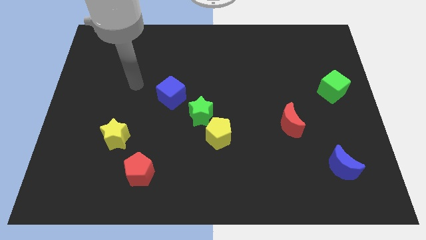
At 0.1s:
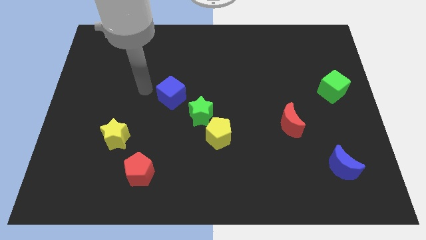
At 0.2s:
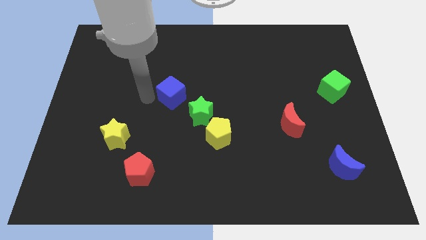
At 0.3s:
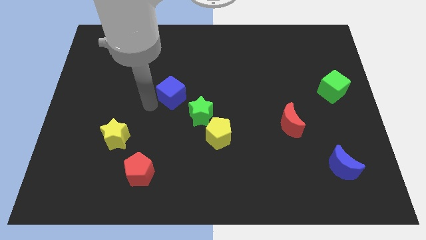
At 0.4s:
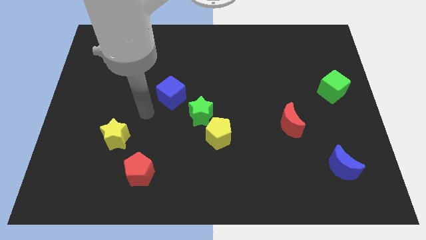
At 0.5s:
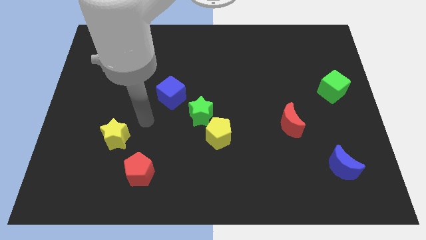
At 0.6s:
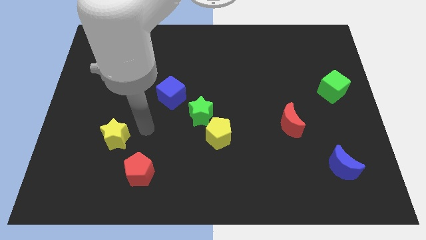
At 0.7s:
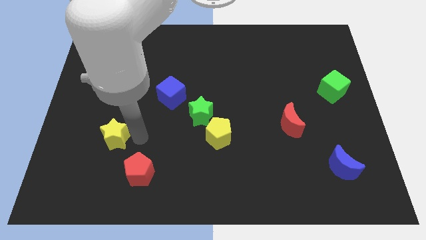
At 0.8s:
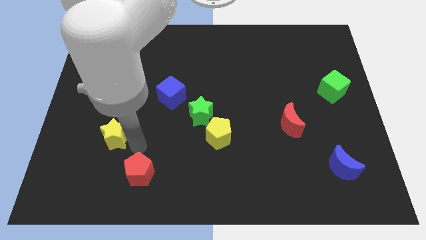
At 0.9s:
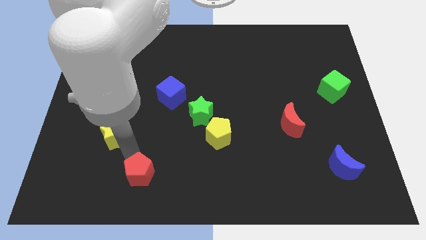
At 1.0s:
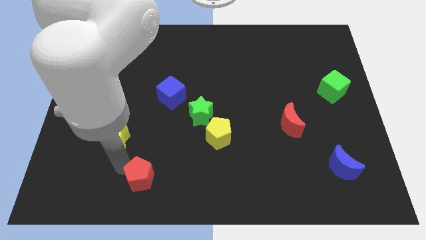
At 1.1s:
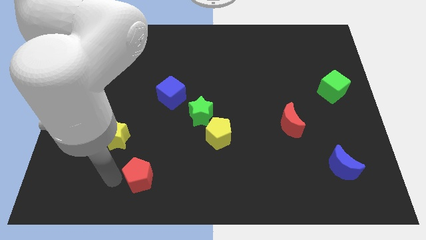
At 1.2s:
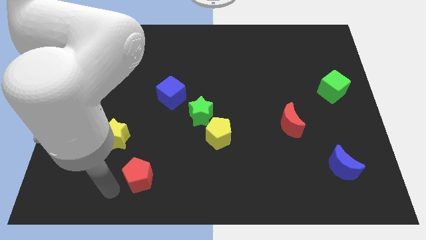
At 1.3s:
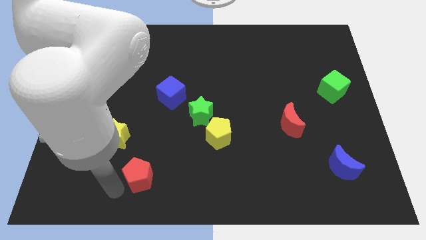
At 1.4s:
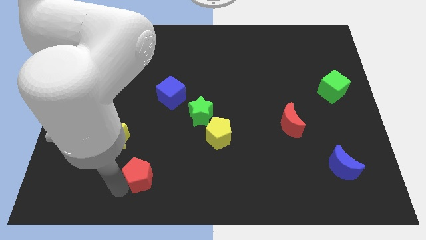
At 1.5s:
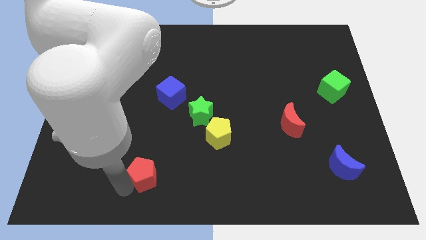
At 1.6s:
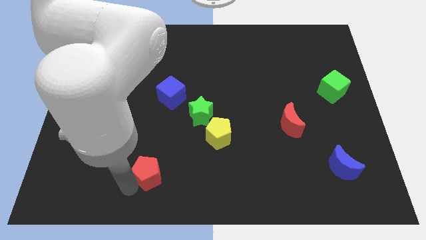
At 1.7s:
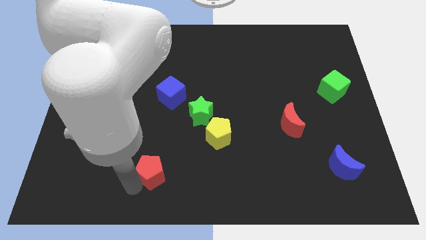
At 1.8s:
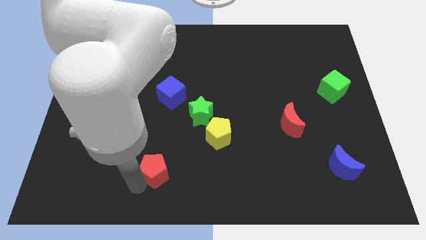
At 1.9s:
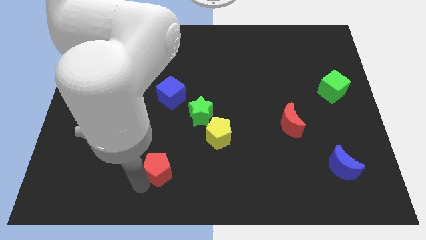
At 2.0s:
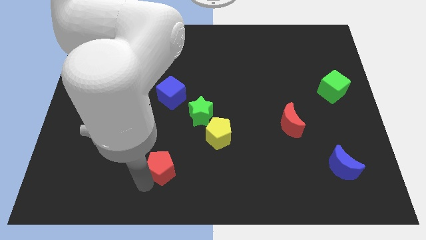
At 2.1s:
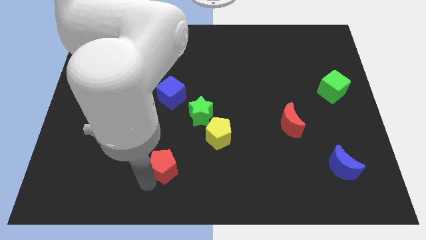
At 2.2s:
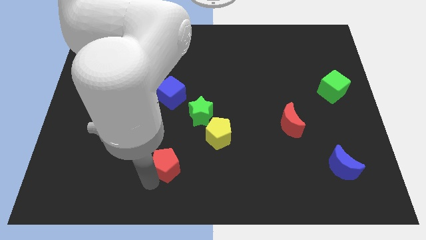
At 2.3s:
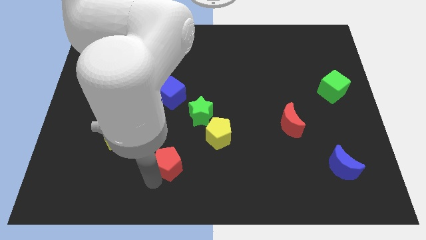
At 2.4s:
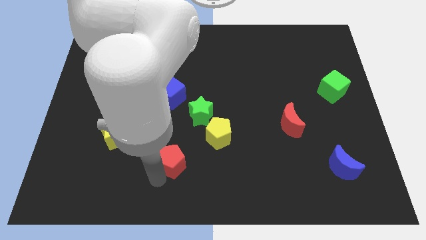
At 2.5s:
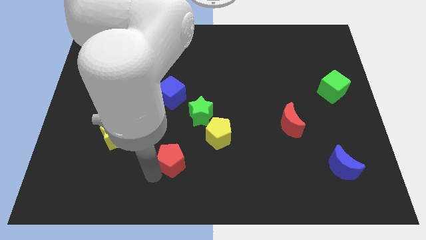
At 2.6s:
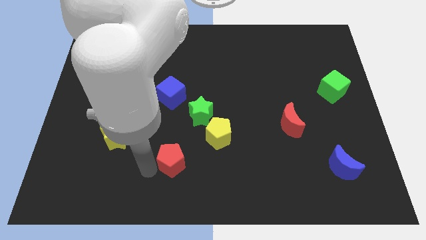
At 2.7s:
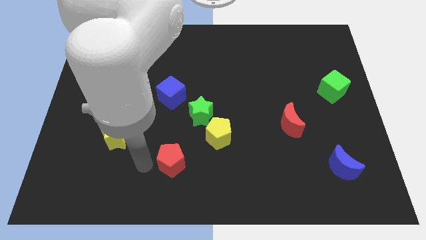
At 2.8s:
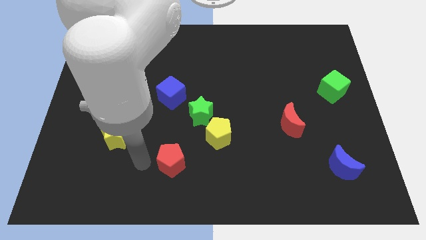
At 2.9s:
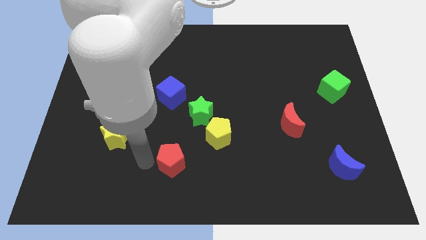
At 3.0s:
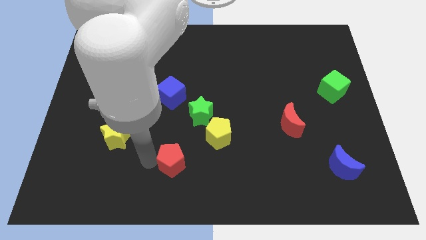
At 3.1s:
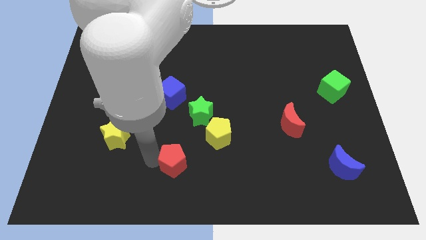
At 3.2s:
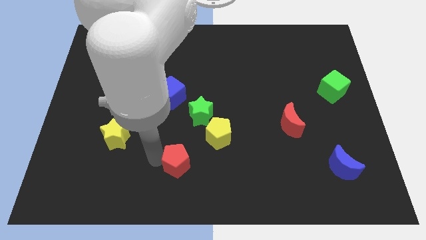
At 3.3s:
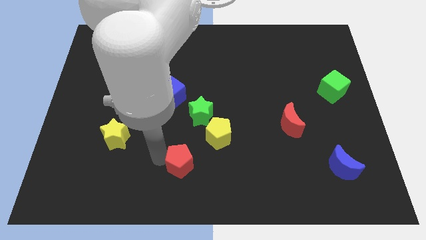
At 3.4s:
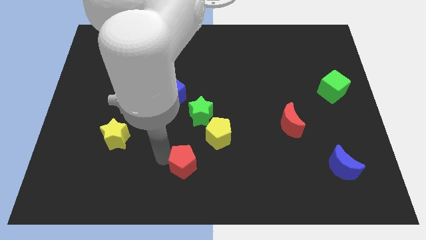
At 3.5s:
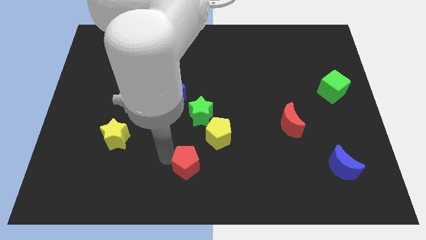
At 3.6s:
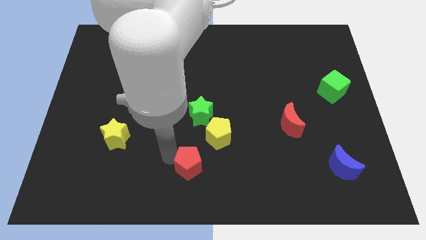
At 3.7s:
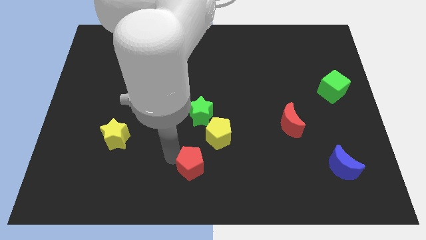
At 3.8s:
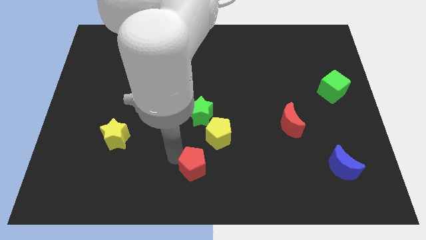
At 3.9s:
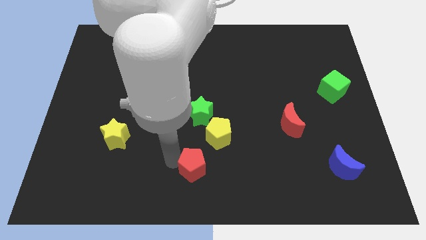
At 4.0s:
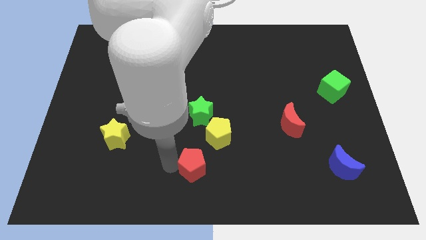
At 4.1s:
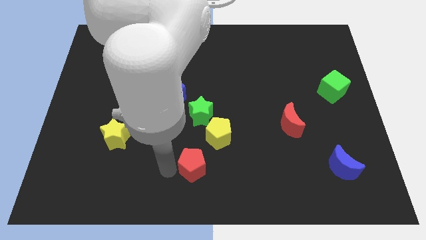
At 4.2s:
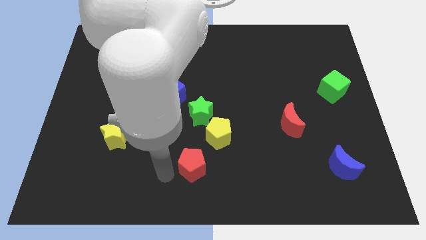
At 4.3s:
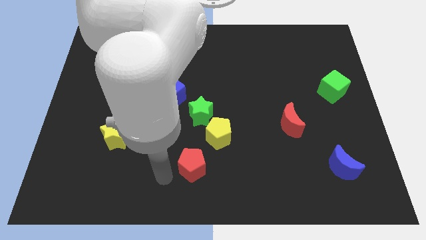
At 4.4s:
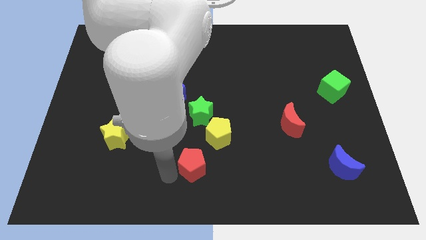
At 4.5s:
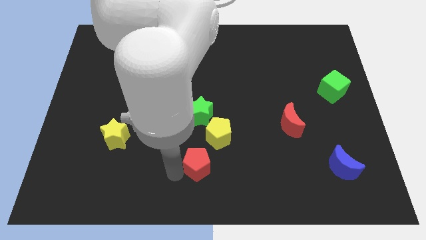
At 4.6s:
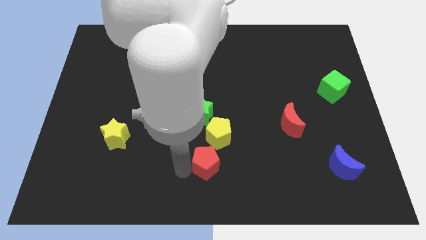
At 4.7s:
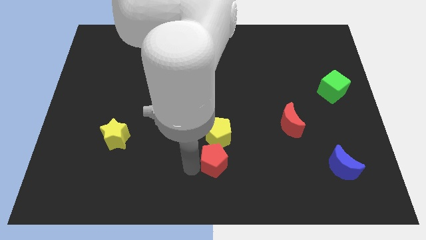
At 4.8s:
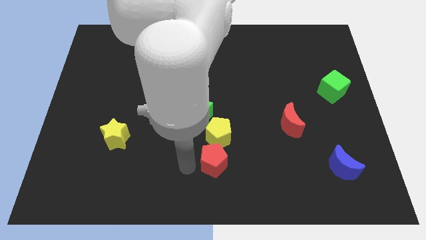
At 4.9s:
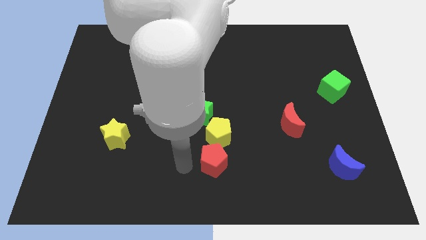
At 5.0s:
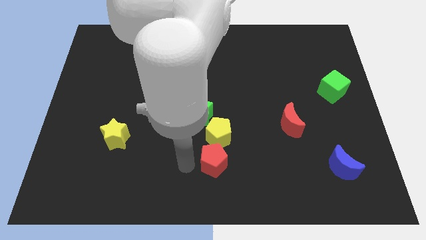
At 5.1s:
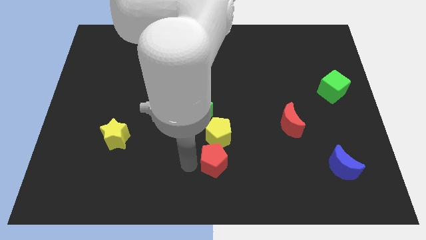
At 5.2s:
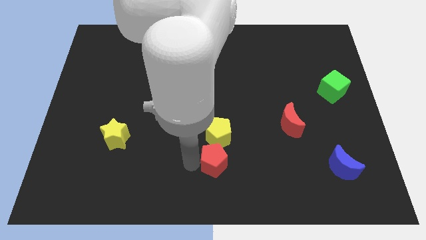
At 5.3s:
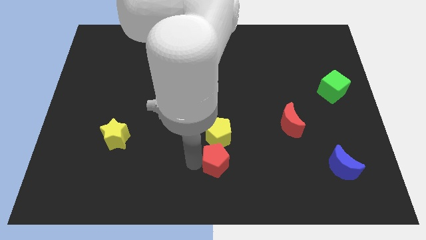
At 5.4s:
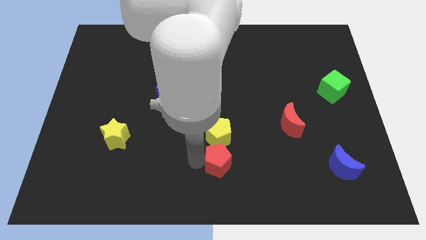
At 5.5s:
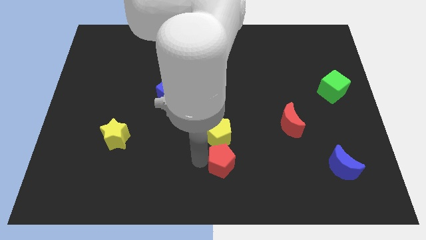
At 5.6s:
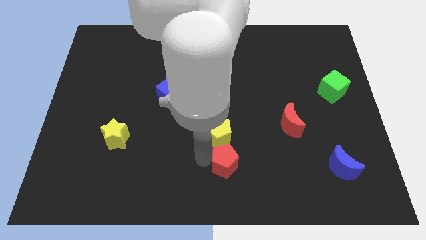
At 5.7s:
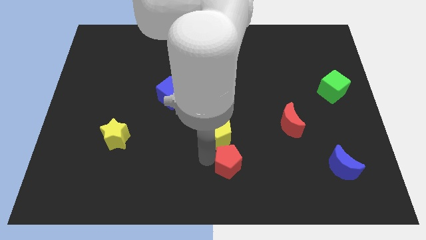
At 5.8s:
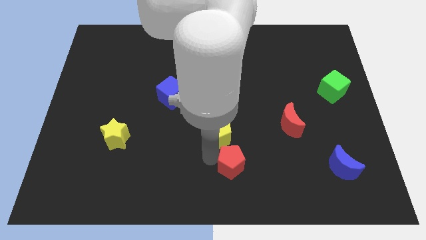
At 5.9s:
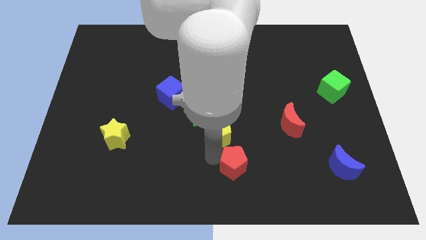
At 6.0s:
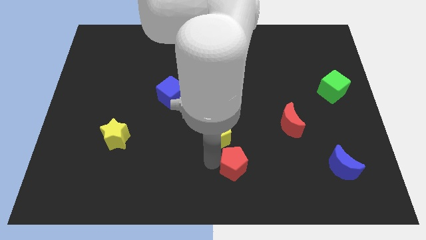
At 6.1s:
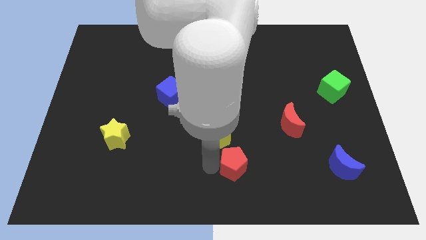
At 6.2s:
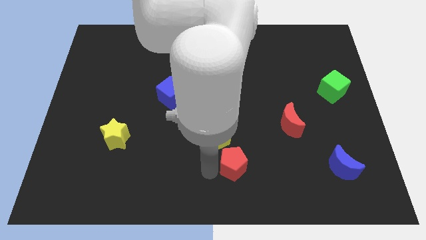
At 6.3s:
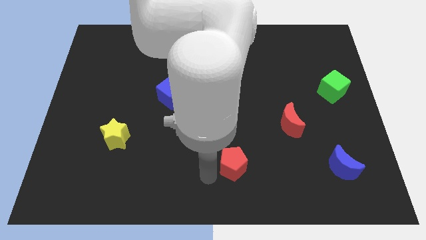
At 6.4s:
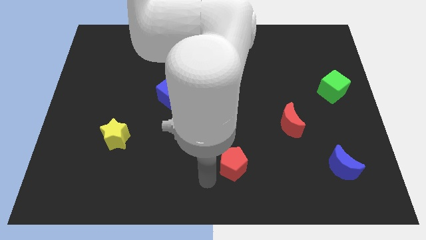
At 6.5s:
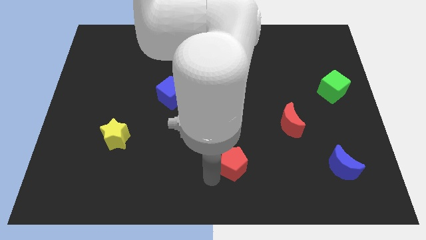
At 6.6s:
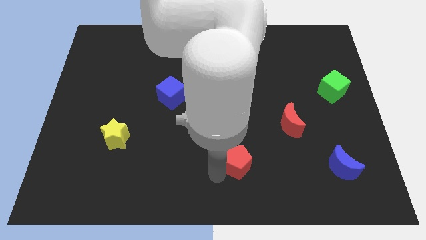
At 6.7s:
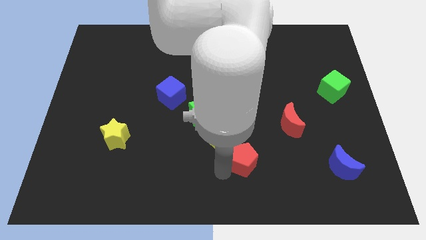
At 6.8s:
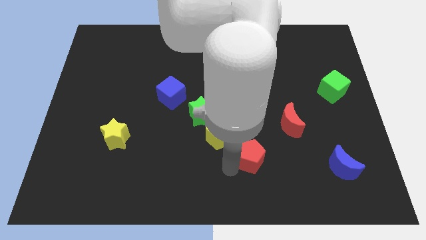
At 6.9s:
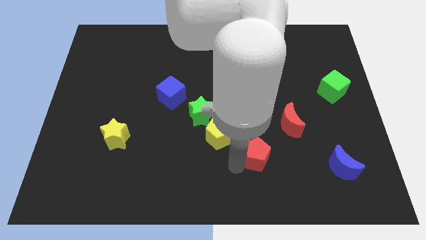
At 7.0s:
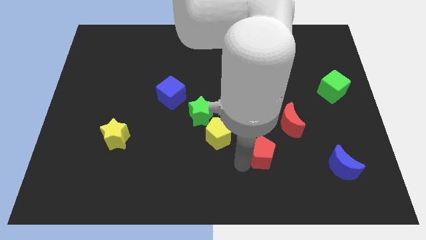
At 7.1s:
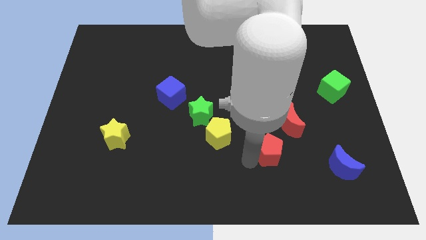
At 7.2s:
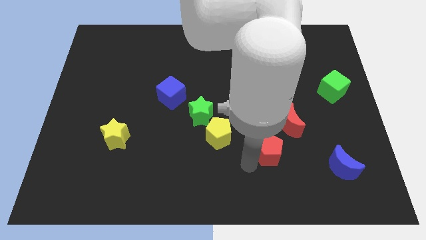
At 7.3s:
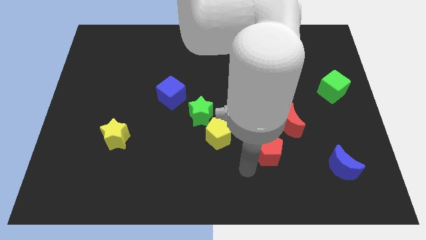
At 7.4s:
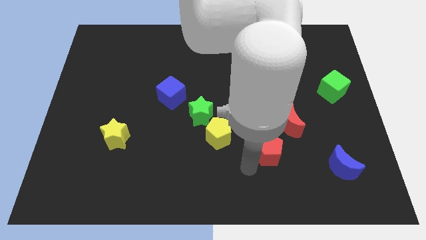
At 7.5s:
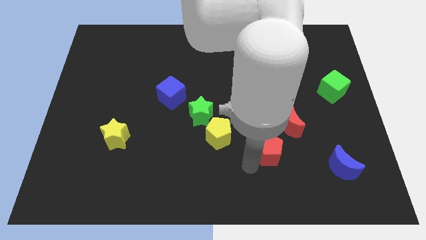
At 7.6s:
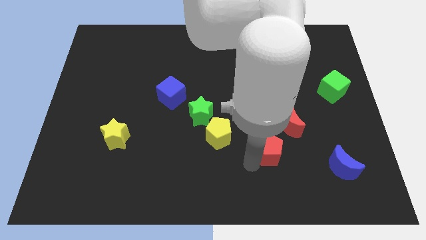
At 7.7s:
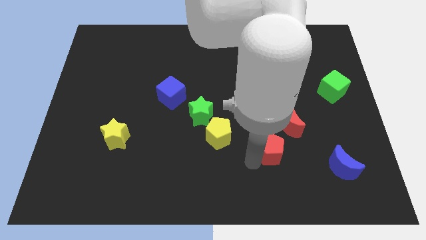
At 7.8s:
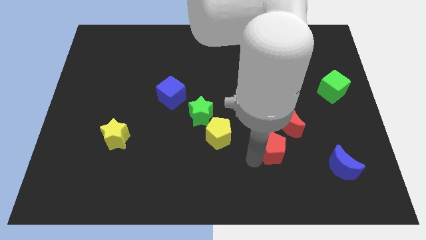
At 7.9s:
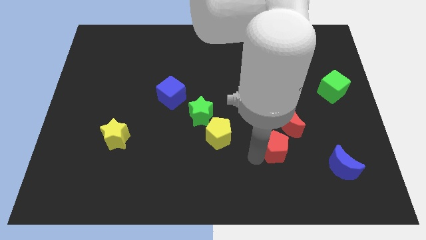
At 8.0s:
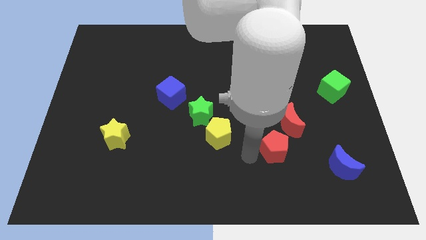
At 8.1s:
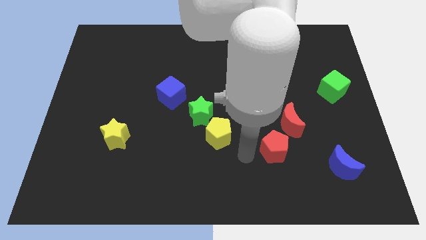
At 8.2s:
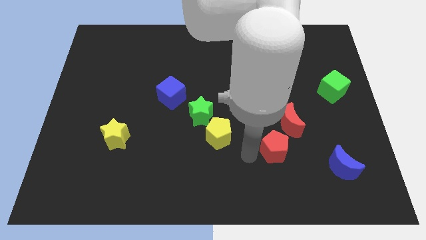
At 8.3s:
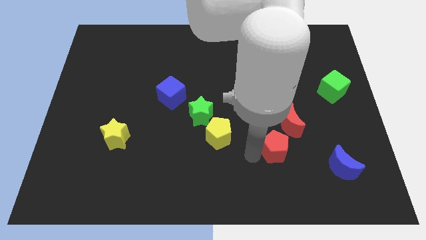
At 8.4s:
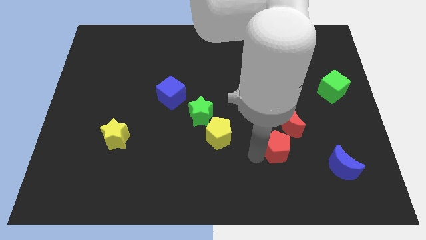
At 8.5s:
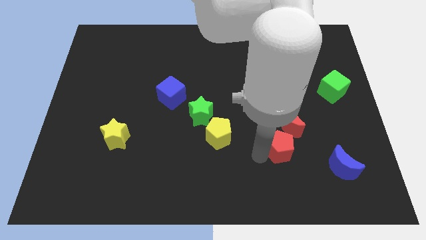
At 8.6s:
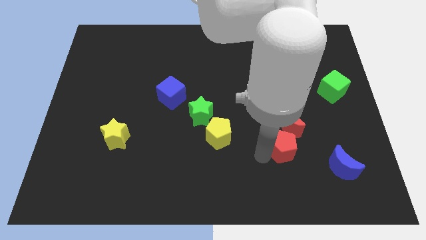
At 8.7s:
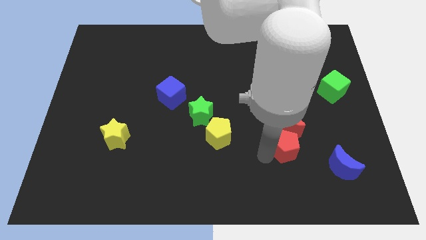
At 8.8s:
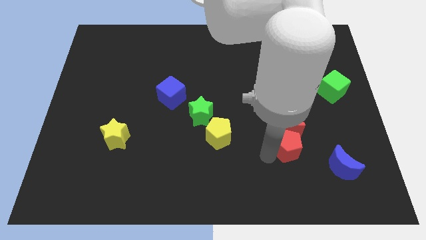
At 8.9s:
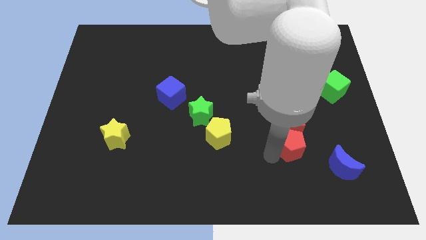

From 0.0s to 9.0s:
move the red pentagon diagonally down and to the right of the red moon
